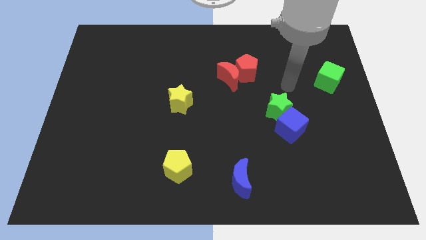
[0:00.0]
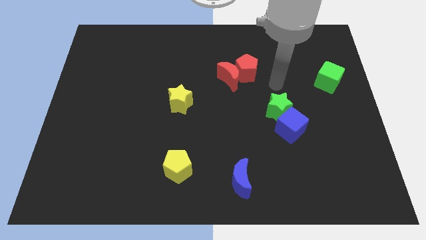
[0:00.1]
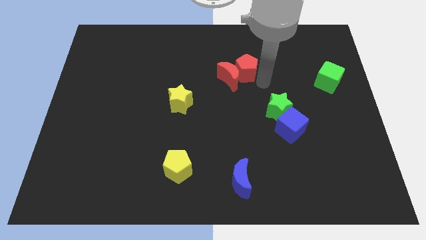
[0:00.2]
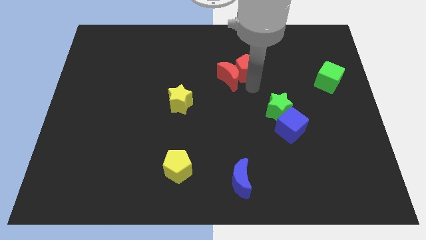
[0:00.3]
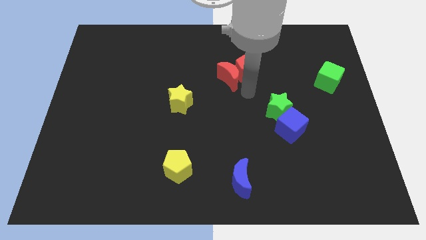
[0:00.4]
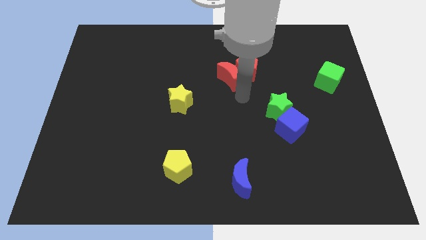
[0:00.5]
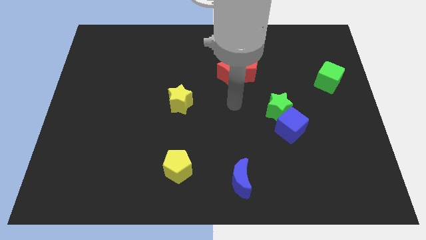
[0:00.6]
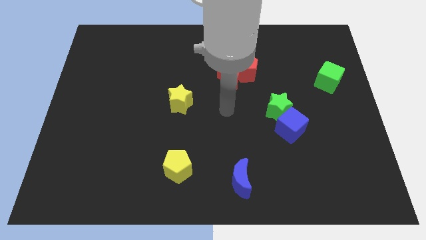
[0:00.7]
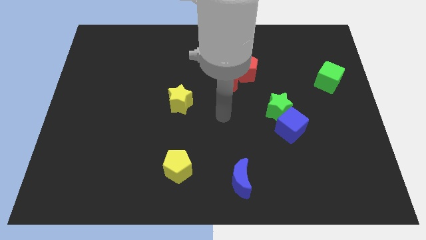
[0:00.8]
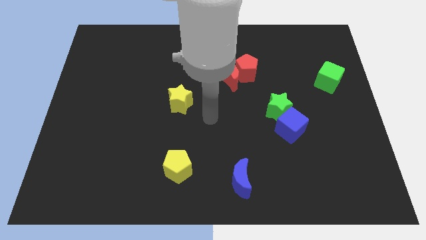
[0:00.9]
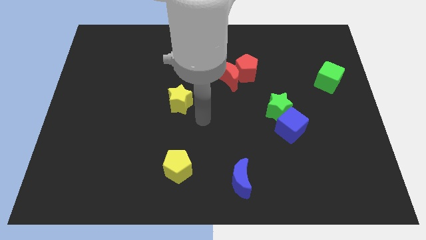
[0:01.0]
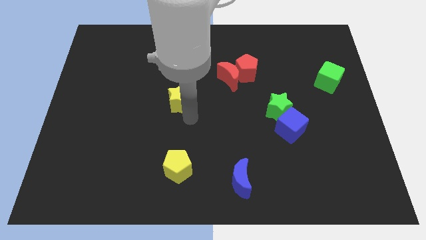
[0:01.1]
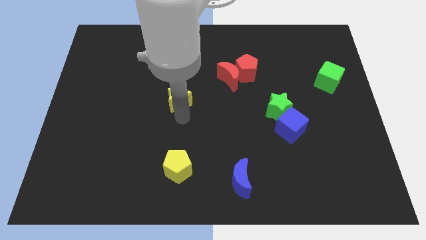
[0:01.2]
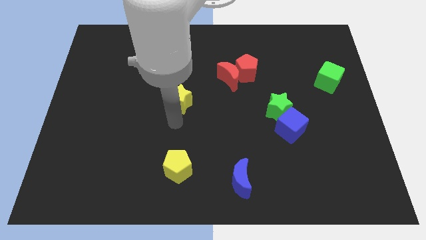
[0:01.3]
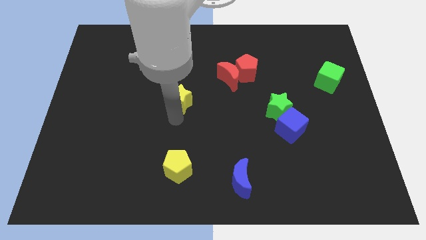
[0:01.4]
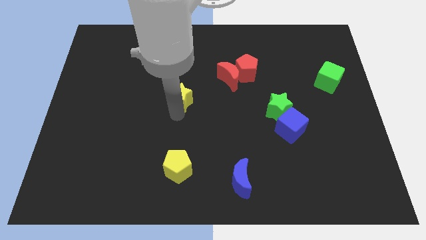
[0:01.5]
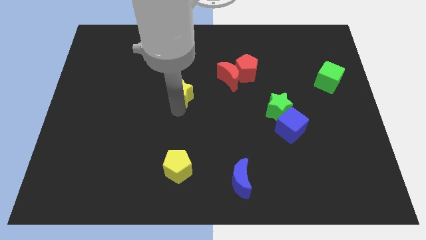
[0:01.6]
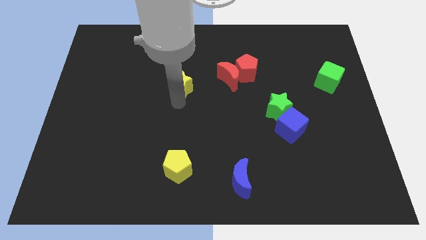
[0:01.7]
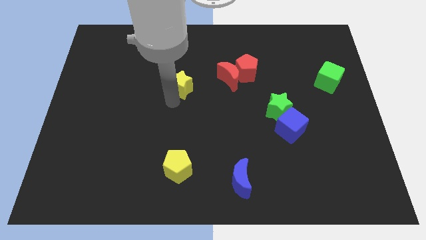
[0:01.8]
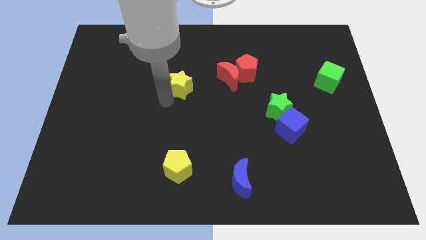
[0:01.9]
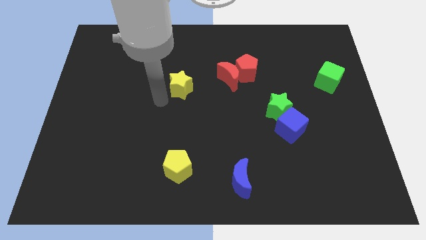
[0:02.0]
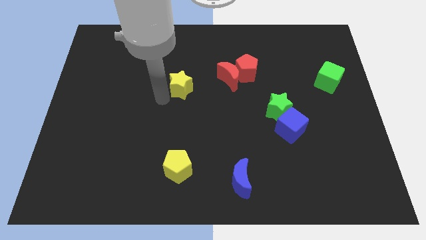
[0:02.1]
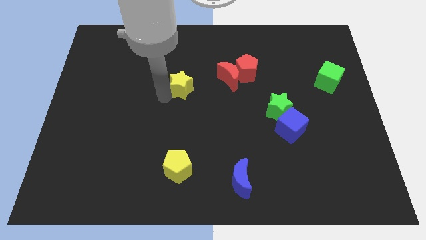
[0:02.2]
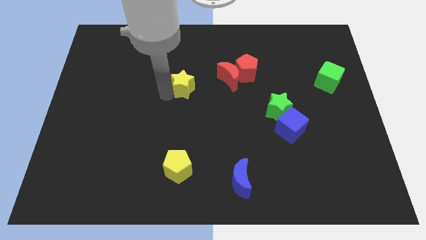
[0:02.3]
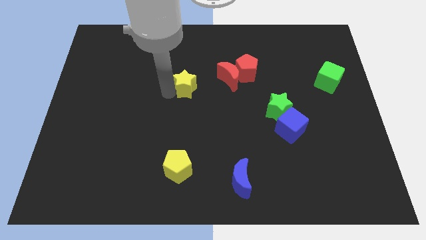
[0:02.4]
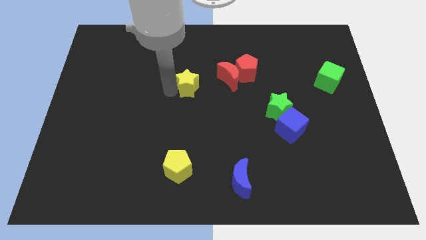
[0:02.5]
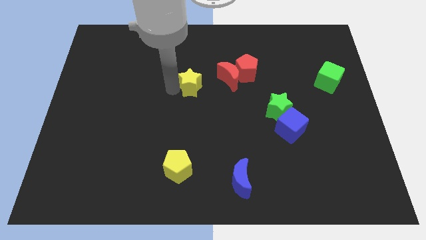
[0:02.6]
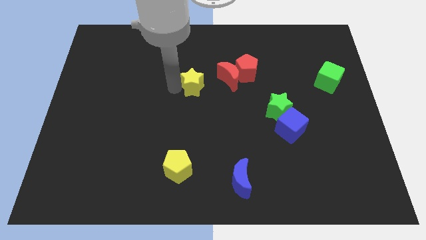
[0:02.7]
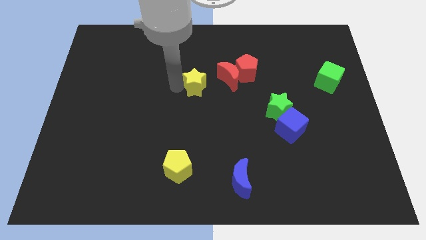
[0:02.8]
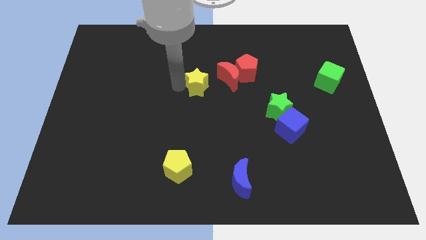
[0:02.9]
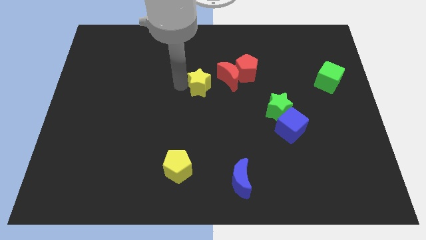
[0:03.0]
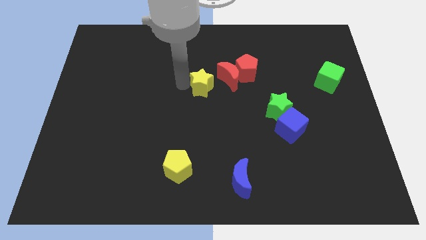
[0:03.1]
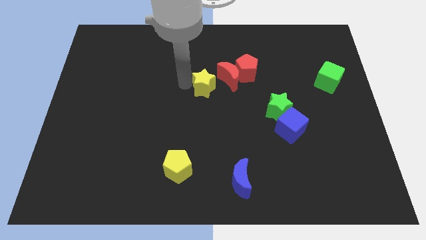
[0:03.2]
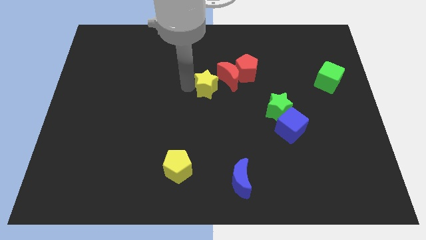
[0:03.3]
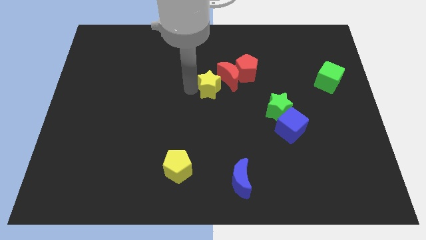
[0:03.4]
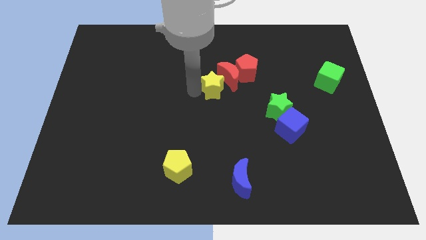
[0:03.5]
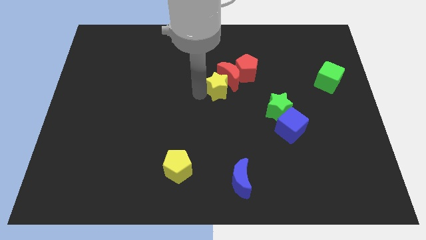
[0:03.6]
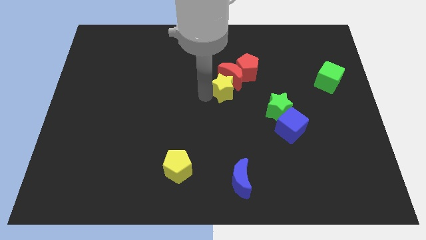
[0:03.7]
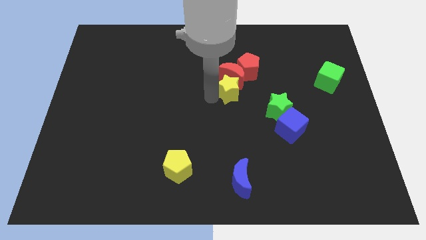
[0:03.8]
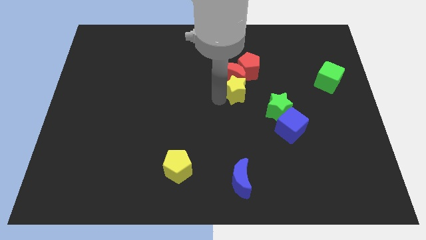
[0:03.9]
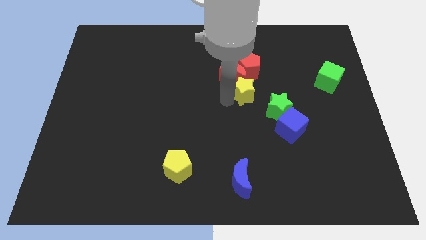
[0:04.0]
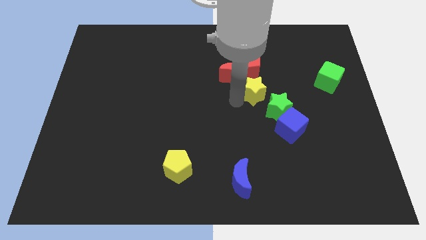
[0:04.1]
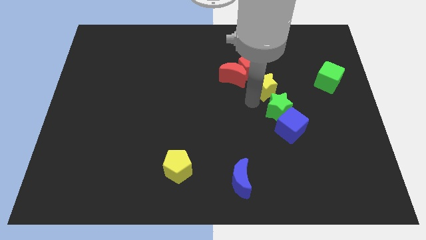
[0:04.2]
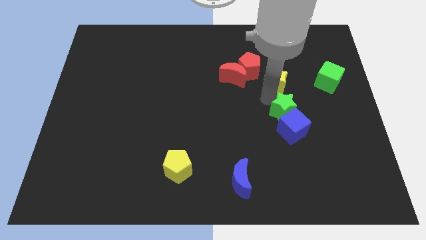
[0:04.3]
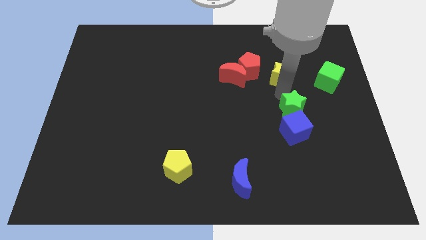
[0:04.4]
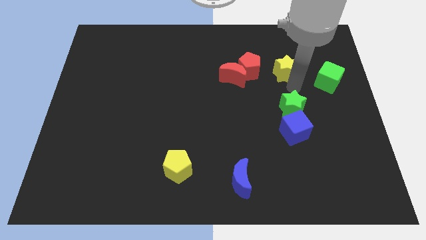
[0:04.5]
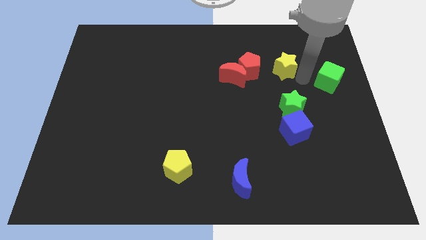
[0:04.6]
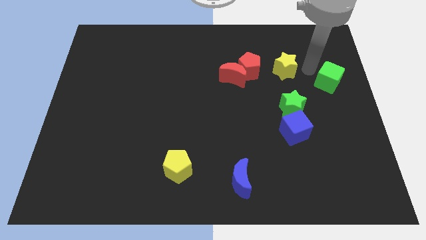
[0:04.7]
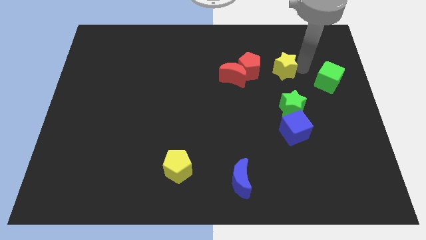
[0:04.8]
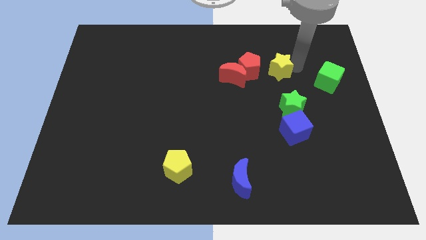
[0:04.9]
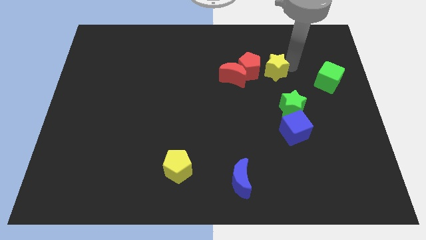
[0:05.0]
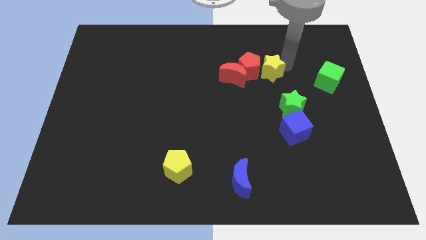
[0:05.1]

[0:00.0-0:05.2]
push the yellow star next to the red pentagon

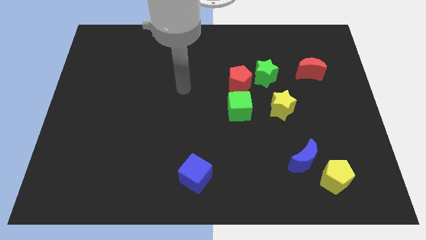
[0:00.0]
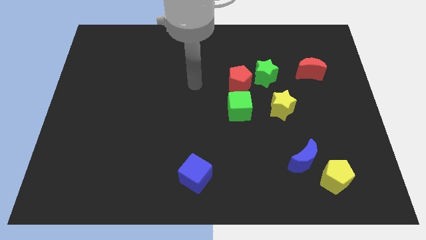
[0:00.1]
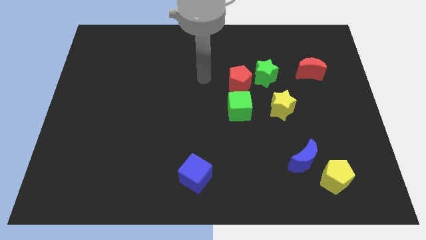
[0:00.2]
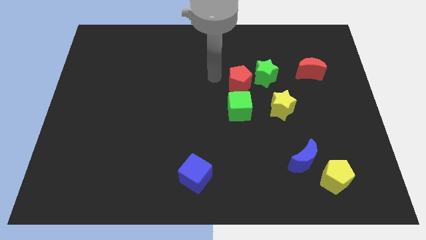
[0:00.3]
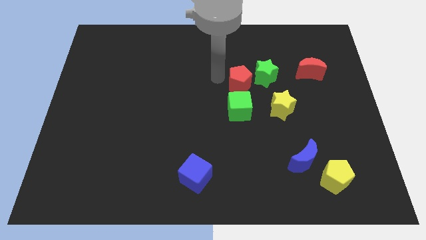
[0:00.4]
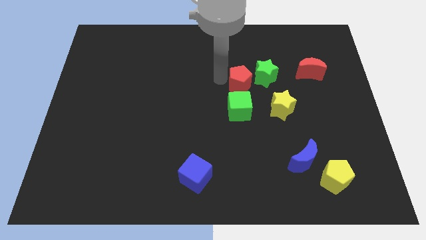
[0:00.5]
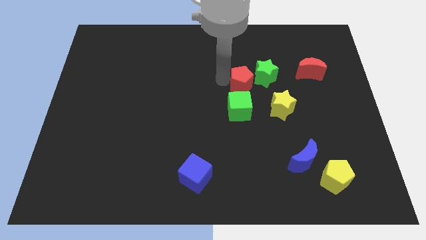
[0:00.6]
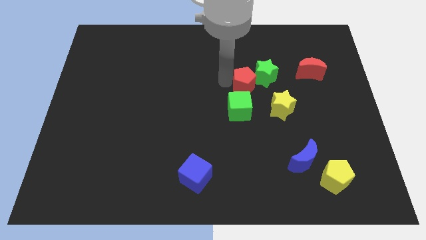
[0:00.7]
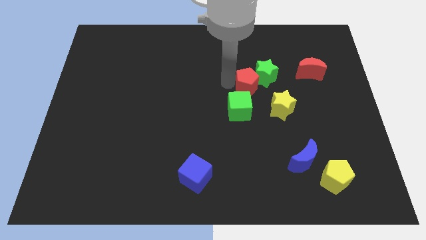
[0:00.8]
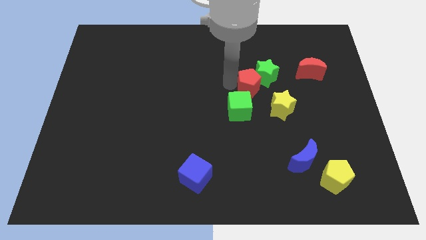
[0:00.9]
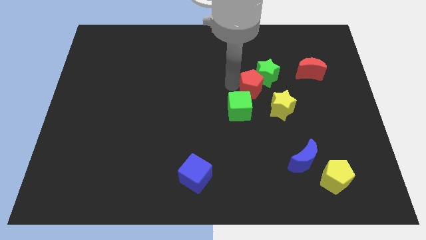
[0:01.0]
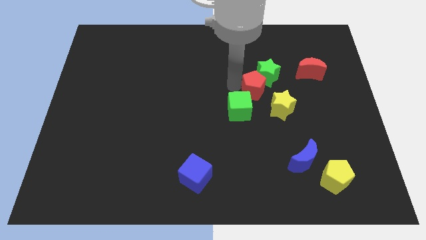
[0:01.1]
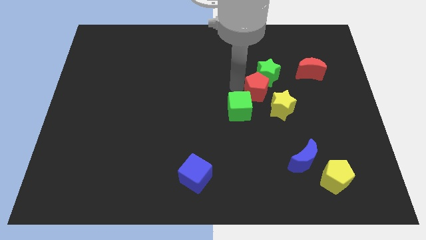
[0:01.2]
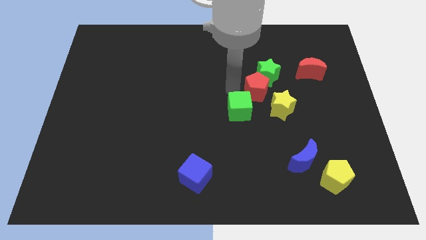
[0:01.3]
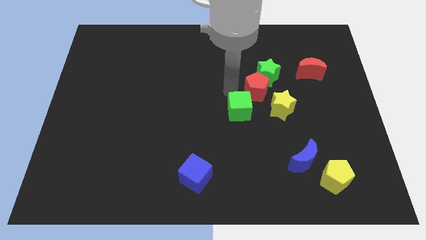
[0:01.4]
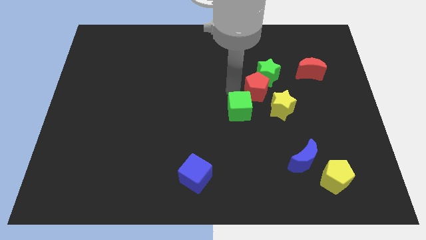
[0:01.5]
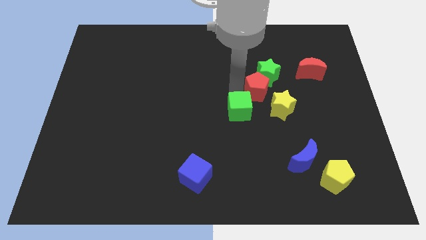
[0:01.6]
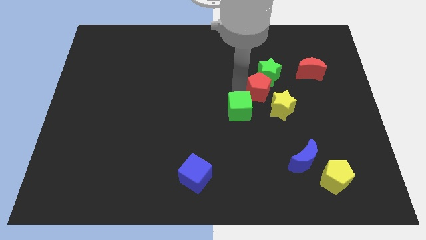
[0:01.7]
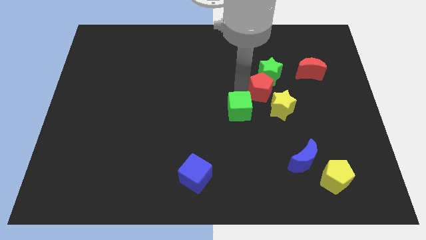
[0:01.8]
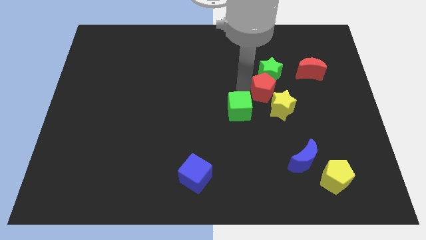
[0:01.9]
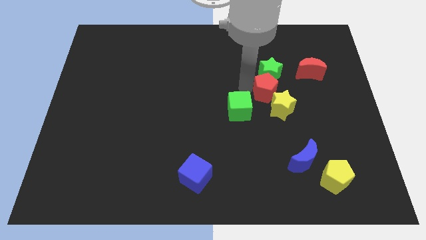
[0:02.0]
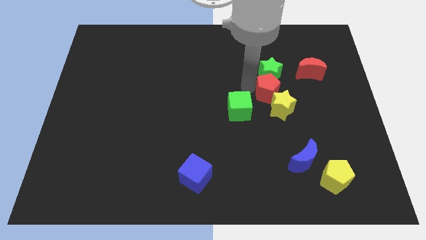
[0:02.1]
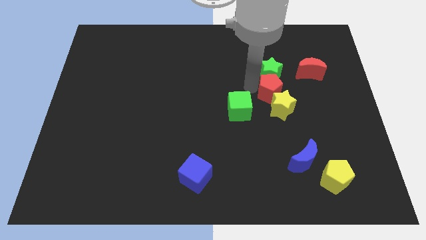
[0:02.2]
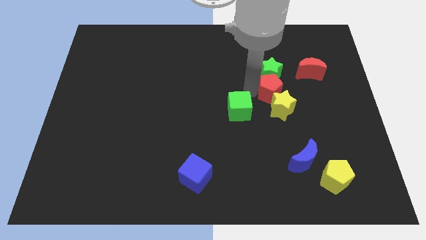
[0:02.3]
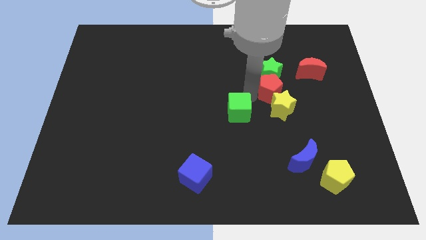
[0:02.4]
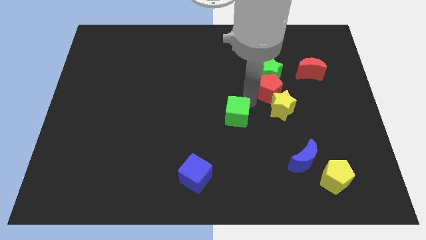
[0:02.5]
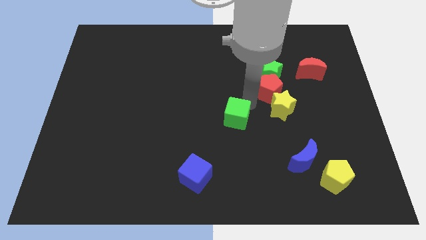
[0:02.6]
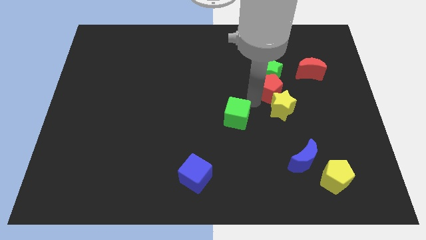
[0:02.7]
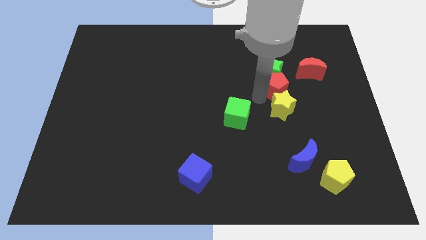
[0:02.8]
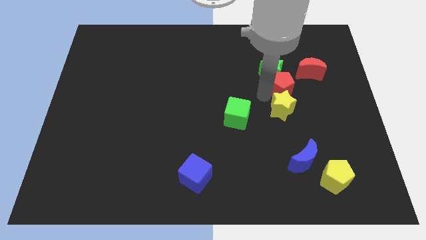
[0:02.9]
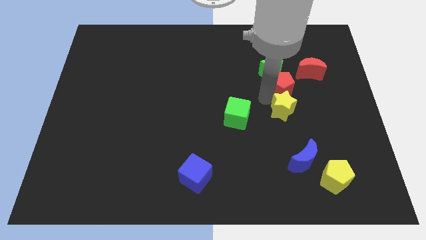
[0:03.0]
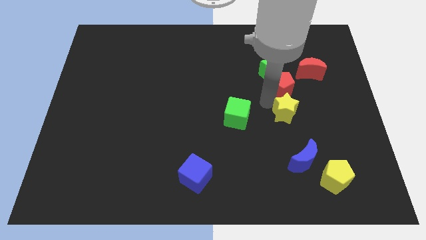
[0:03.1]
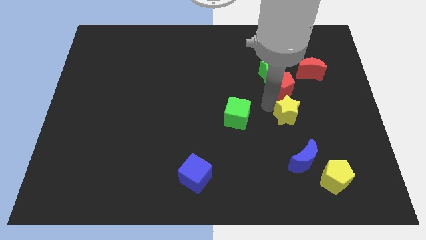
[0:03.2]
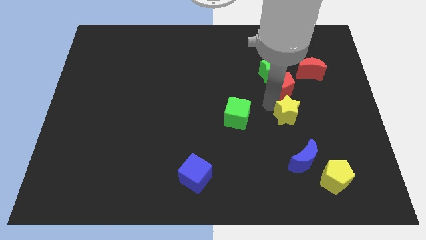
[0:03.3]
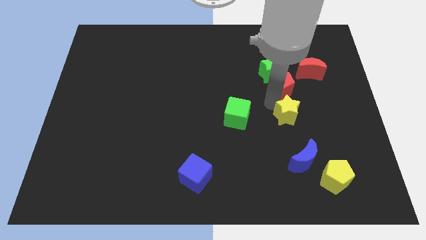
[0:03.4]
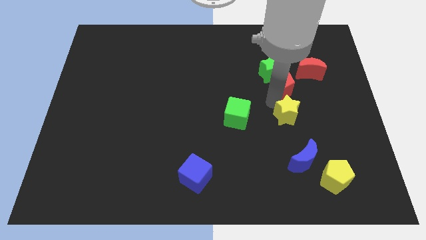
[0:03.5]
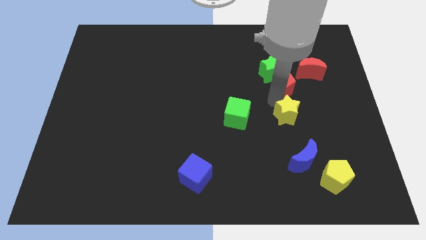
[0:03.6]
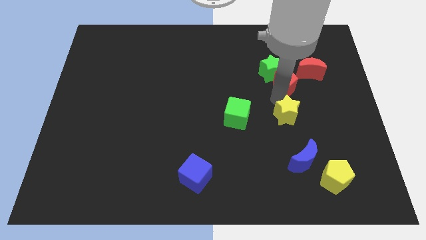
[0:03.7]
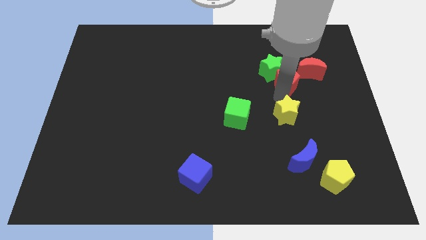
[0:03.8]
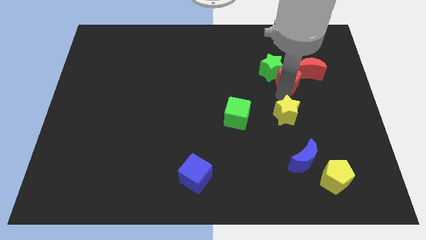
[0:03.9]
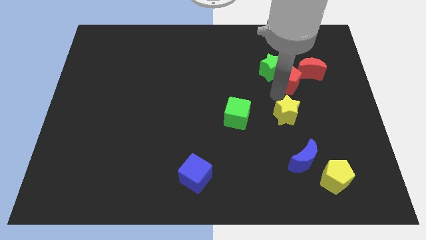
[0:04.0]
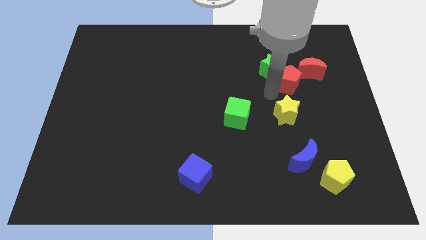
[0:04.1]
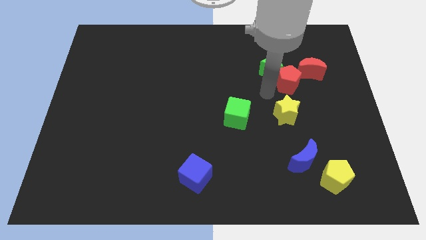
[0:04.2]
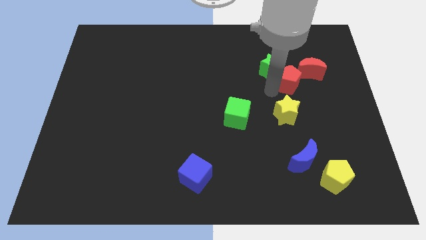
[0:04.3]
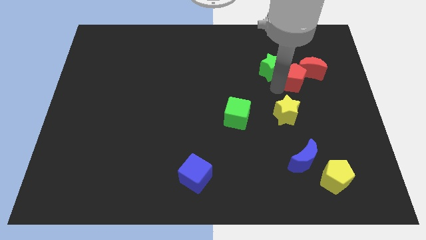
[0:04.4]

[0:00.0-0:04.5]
move the red pentagon to the red moon
